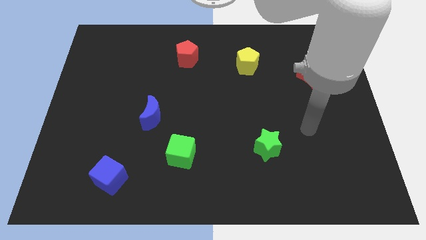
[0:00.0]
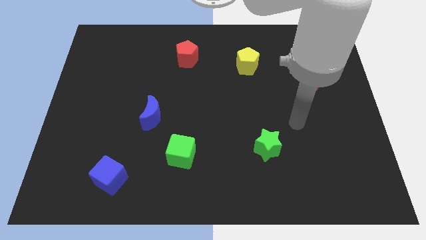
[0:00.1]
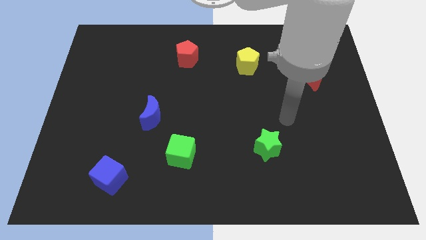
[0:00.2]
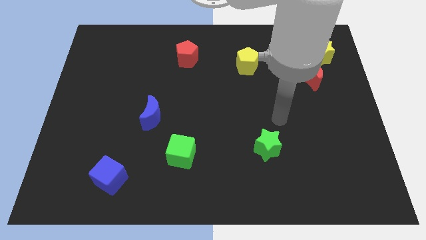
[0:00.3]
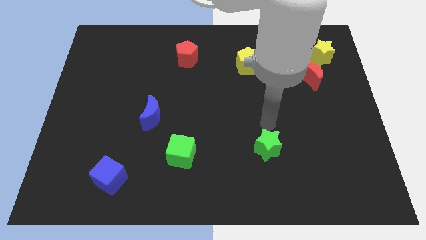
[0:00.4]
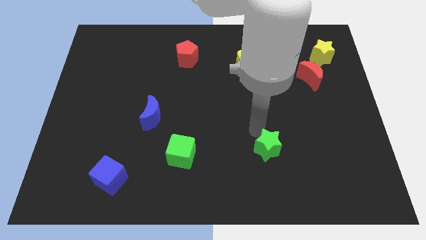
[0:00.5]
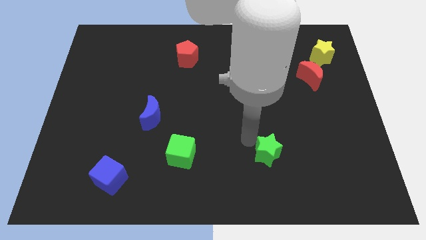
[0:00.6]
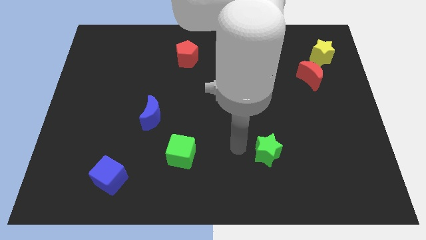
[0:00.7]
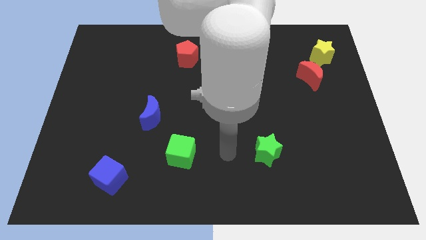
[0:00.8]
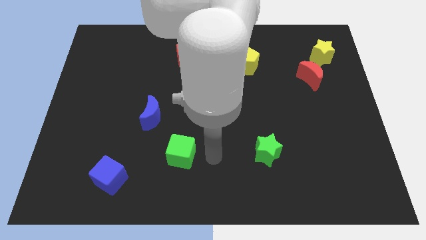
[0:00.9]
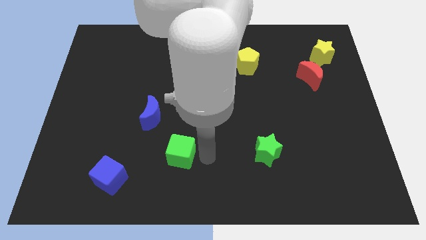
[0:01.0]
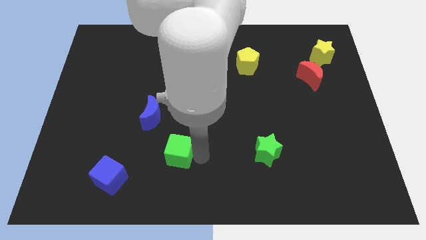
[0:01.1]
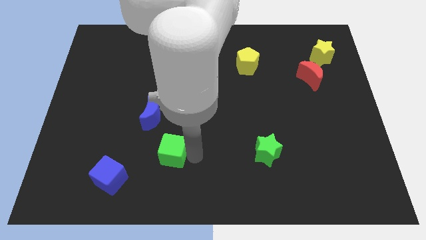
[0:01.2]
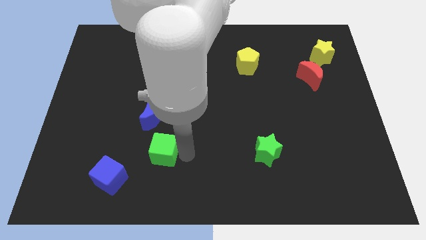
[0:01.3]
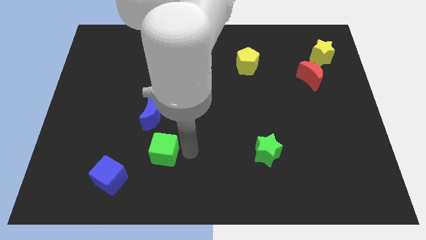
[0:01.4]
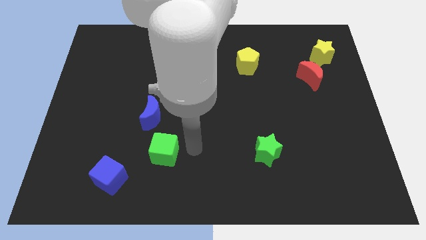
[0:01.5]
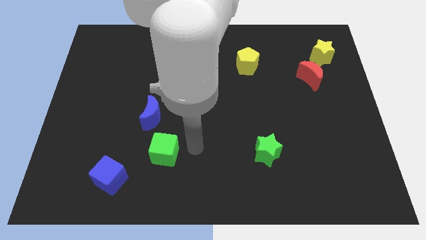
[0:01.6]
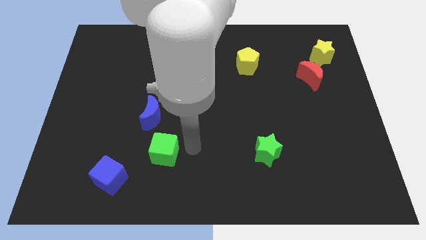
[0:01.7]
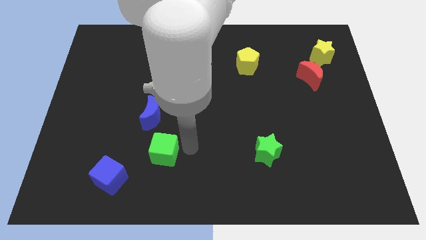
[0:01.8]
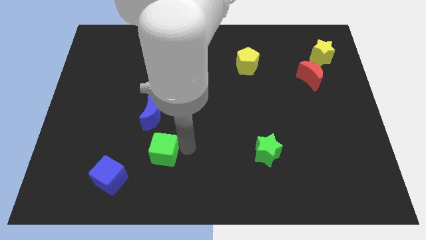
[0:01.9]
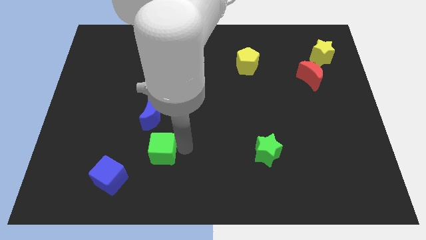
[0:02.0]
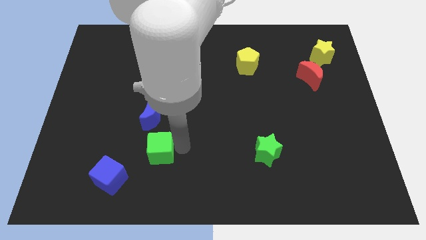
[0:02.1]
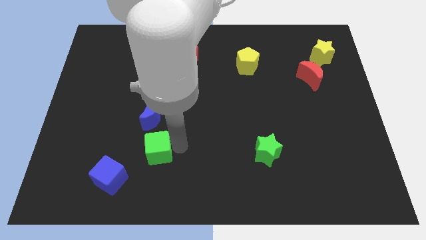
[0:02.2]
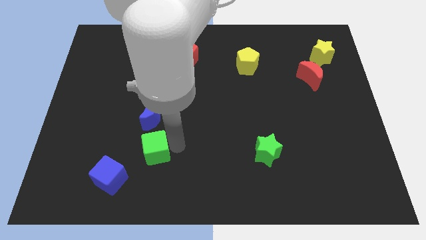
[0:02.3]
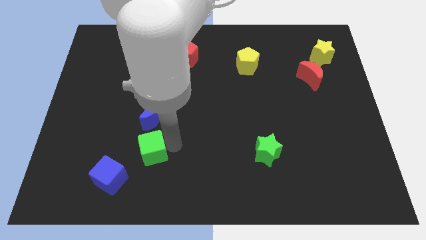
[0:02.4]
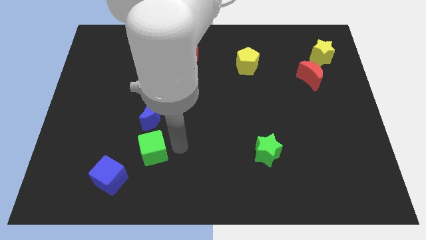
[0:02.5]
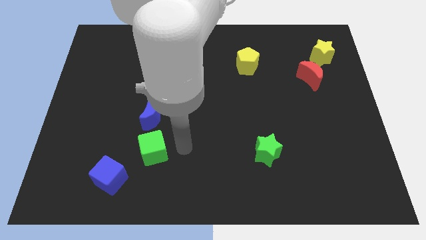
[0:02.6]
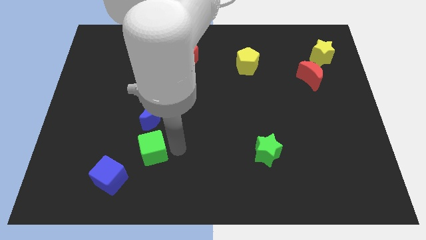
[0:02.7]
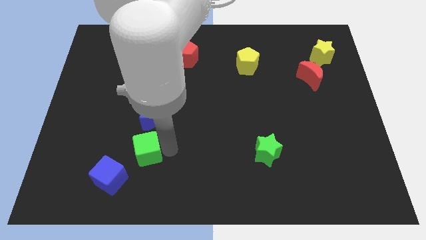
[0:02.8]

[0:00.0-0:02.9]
push the green cube slightly to the left

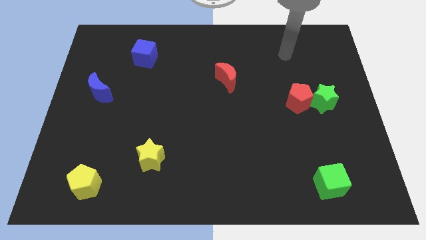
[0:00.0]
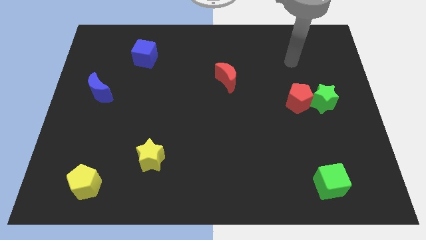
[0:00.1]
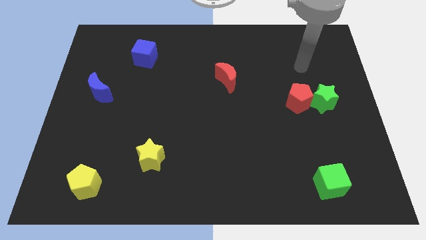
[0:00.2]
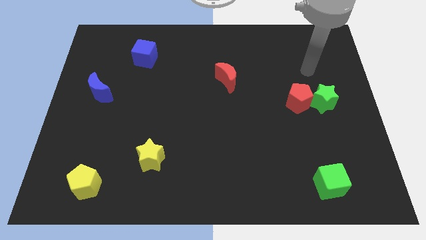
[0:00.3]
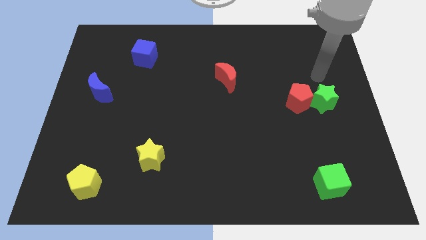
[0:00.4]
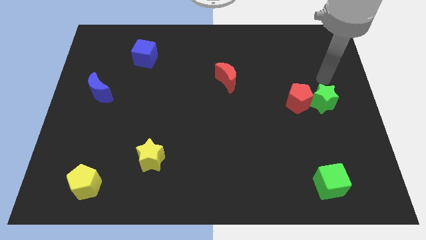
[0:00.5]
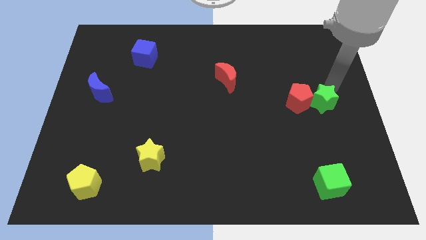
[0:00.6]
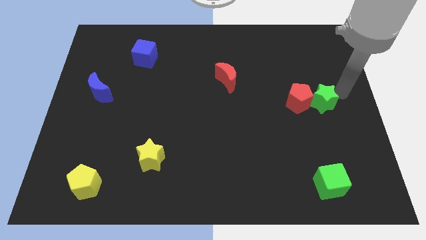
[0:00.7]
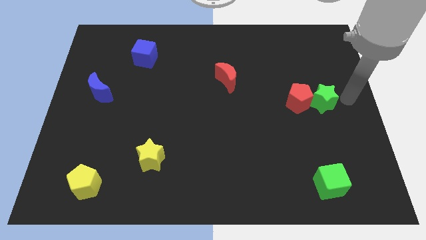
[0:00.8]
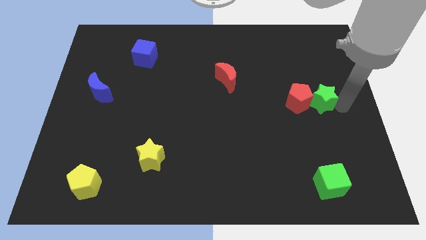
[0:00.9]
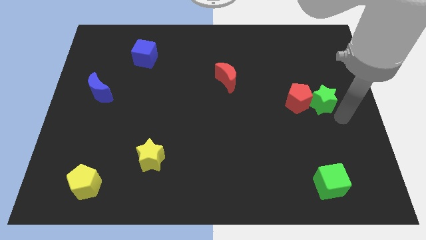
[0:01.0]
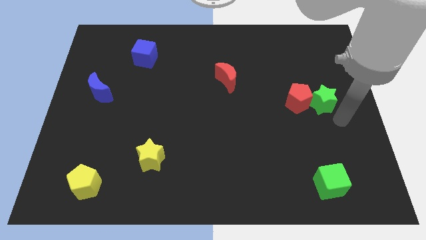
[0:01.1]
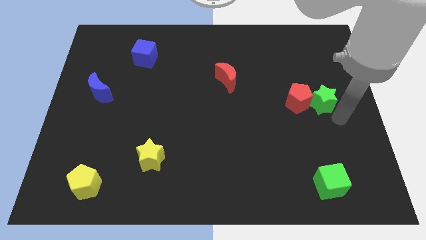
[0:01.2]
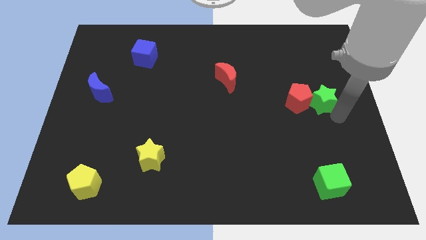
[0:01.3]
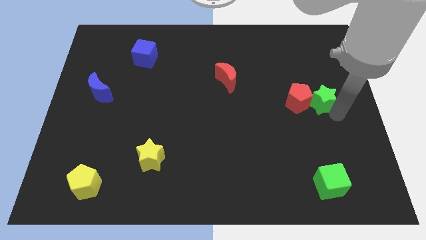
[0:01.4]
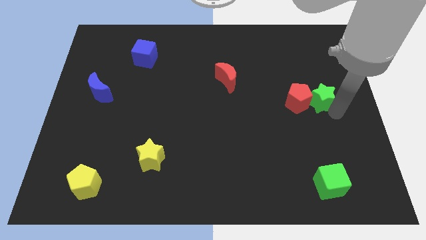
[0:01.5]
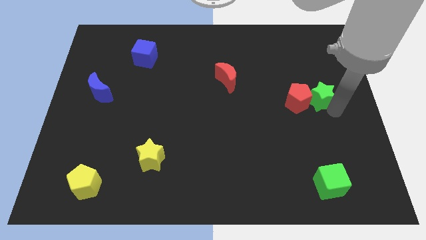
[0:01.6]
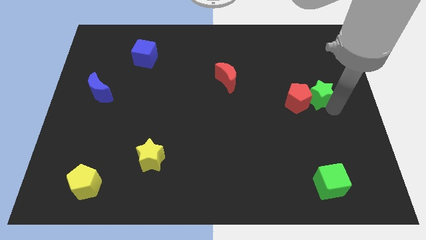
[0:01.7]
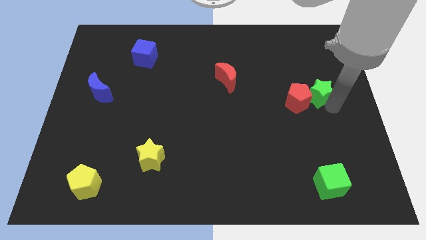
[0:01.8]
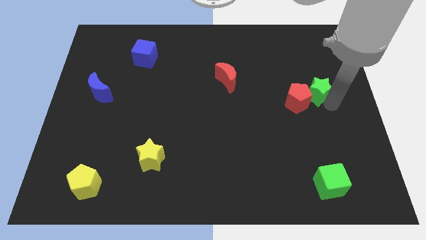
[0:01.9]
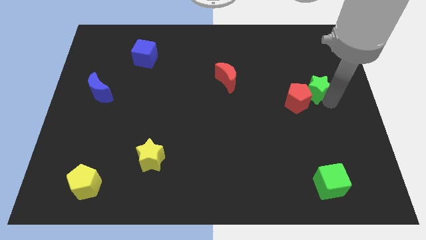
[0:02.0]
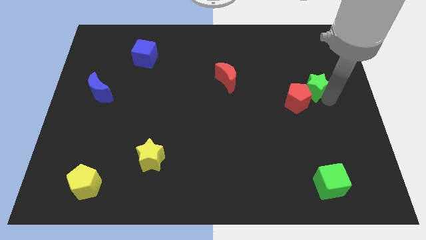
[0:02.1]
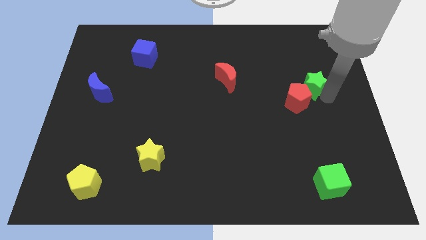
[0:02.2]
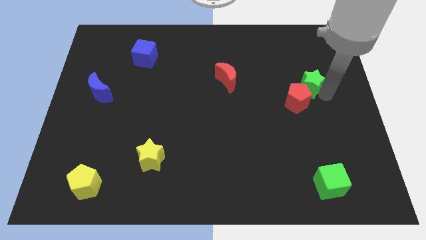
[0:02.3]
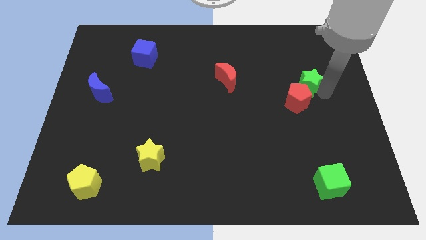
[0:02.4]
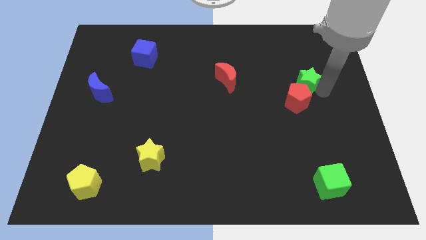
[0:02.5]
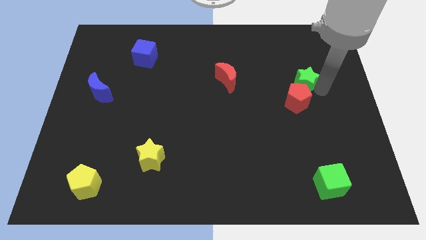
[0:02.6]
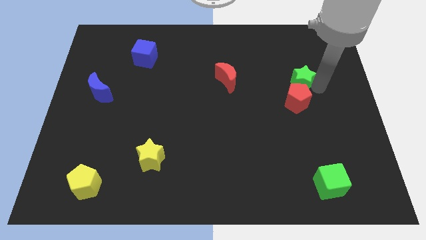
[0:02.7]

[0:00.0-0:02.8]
push the green star up and left somewhat

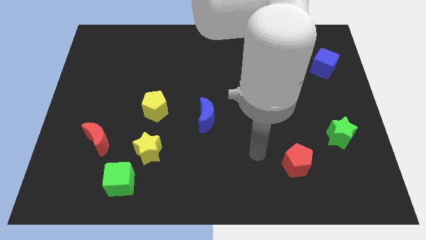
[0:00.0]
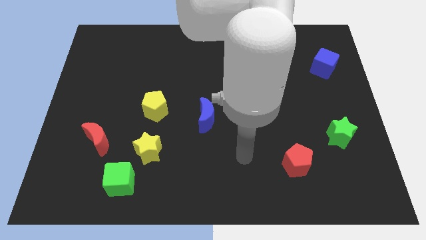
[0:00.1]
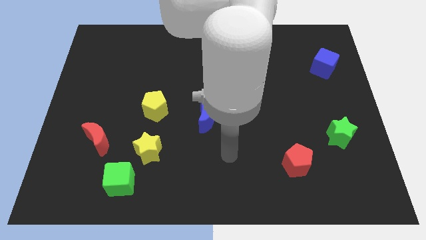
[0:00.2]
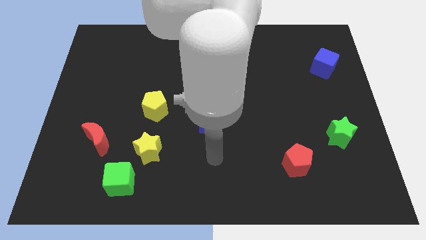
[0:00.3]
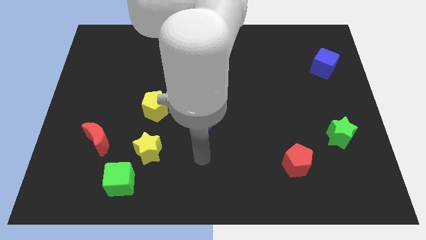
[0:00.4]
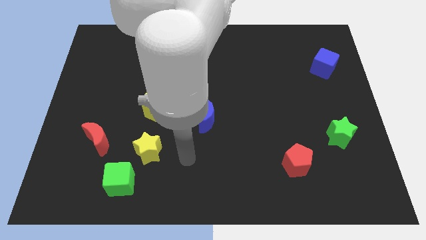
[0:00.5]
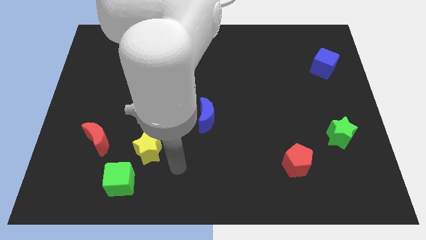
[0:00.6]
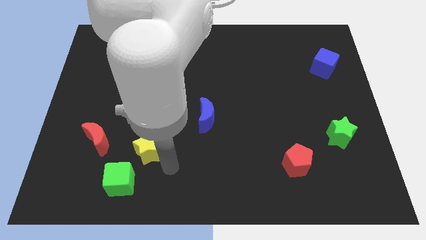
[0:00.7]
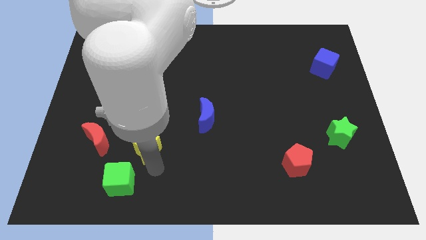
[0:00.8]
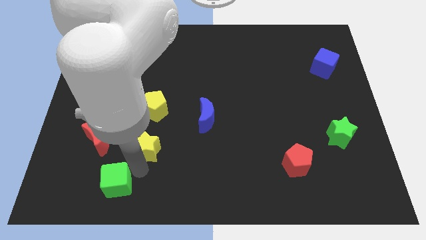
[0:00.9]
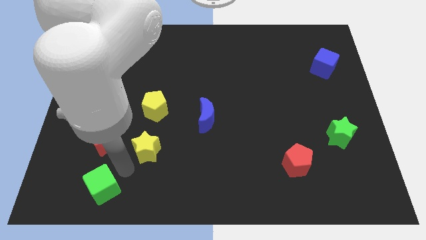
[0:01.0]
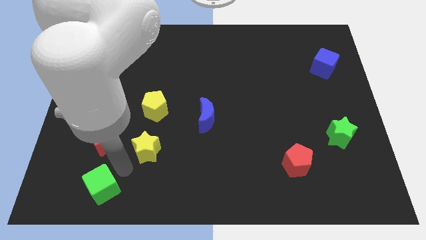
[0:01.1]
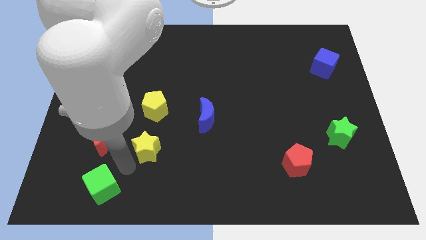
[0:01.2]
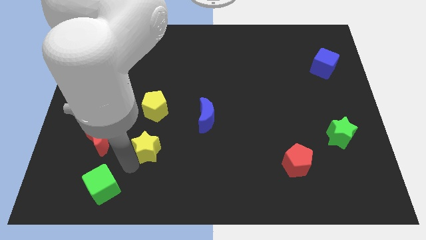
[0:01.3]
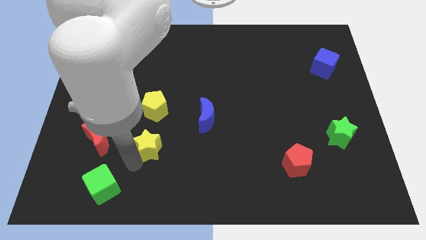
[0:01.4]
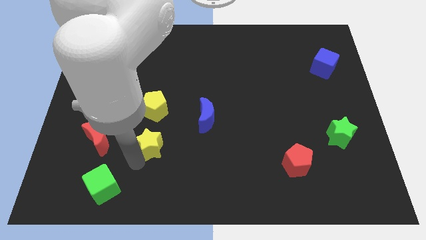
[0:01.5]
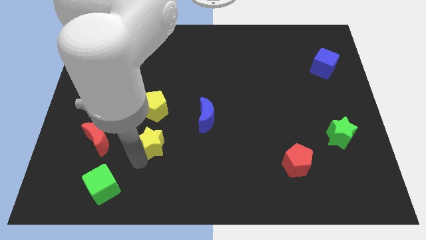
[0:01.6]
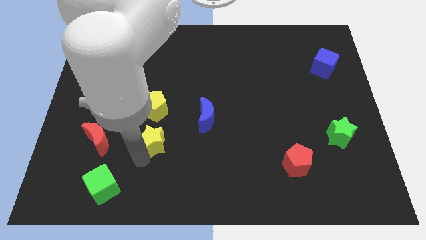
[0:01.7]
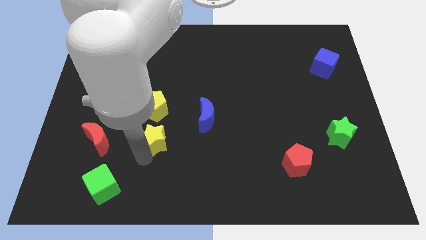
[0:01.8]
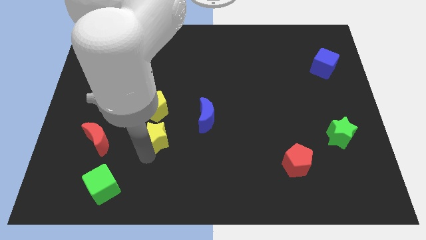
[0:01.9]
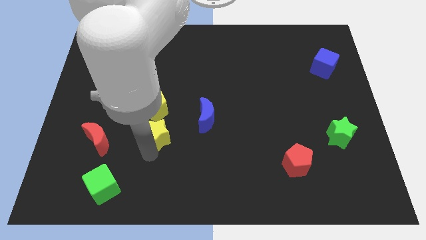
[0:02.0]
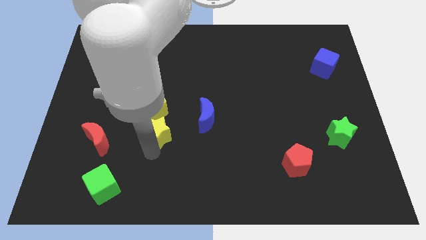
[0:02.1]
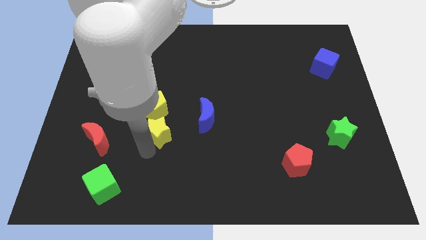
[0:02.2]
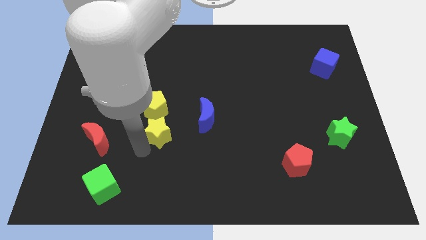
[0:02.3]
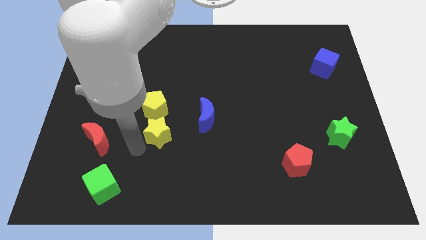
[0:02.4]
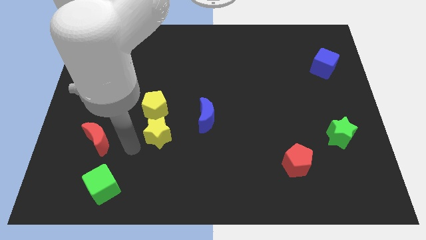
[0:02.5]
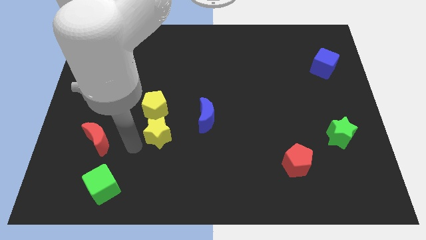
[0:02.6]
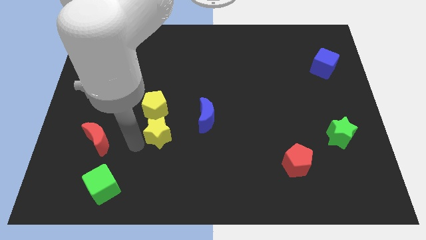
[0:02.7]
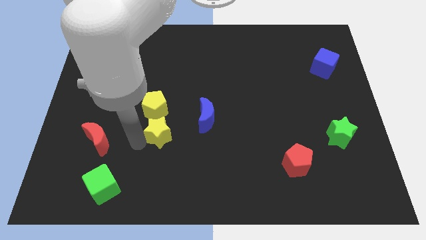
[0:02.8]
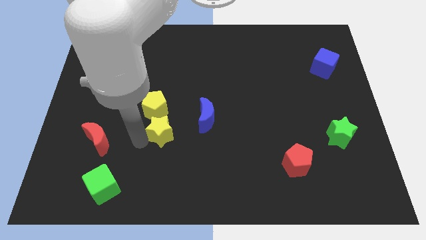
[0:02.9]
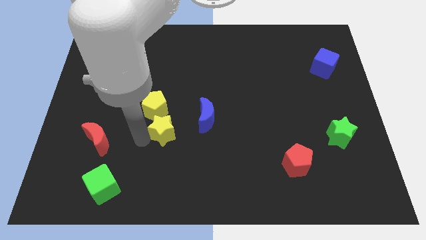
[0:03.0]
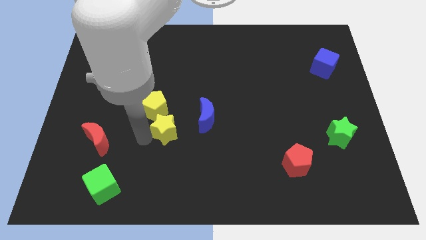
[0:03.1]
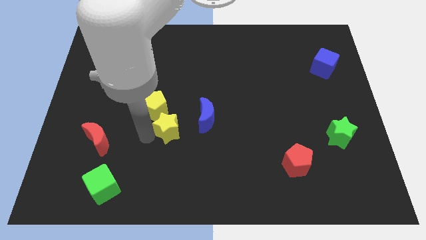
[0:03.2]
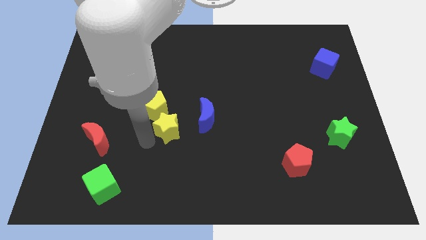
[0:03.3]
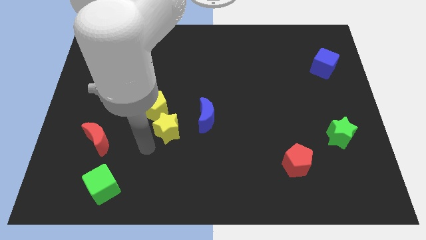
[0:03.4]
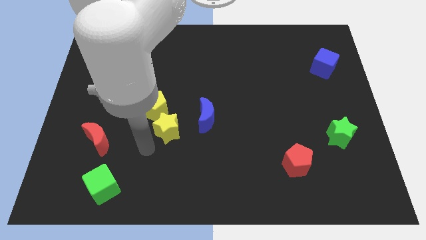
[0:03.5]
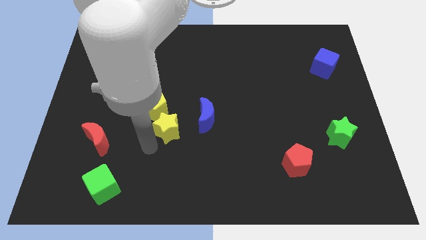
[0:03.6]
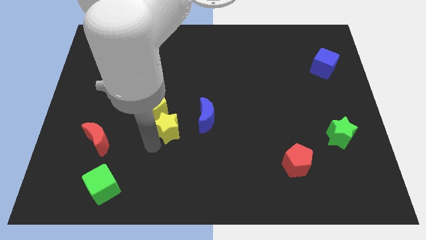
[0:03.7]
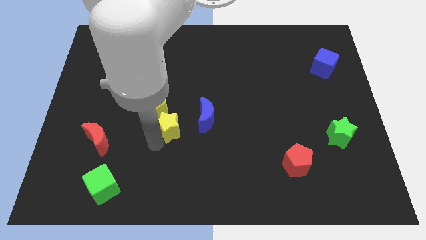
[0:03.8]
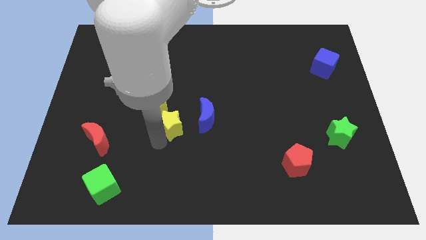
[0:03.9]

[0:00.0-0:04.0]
slide the yellow star a little bit upwards and then right
